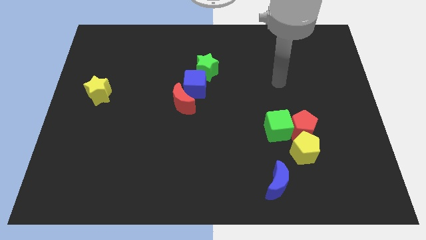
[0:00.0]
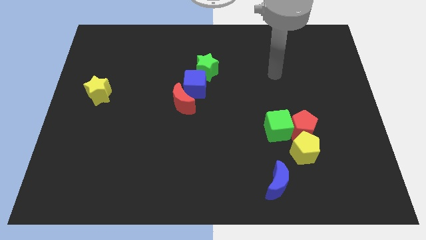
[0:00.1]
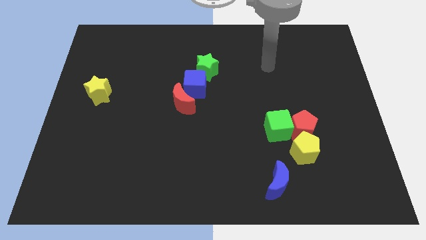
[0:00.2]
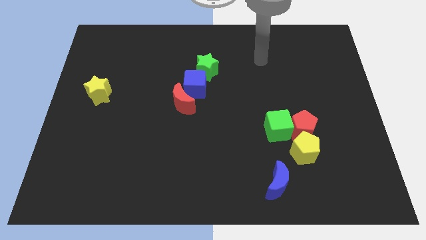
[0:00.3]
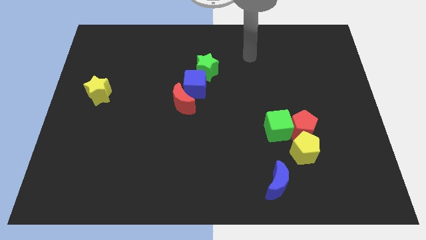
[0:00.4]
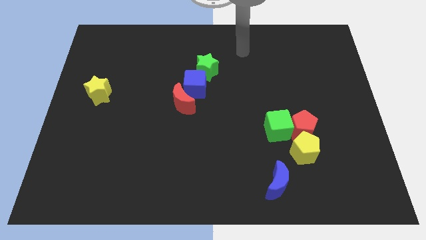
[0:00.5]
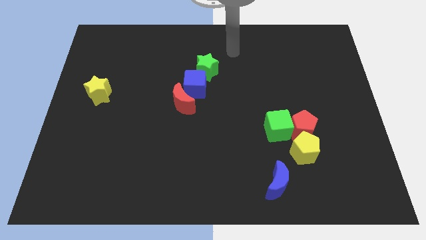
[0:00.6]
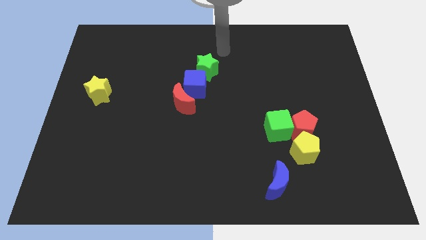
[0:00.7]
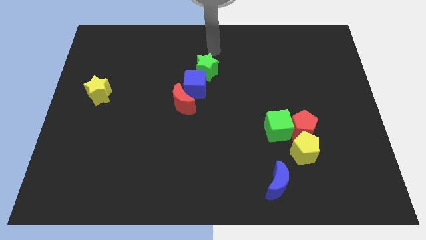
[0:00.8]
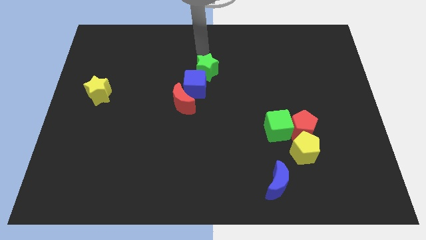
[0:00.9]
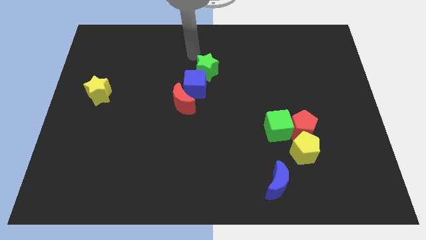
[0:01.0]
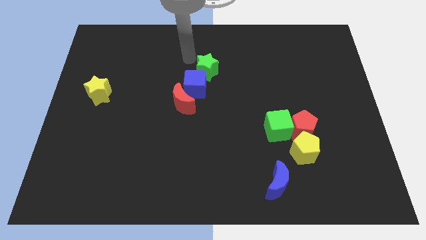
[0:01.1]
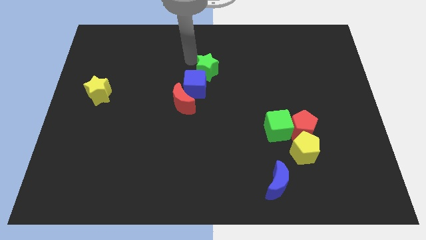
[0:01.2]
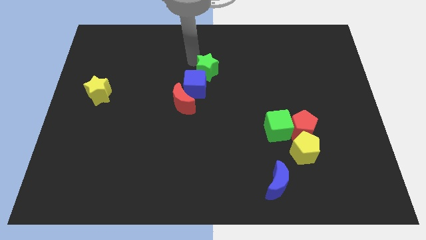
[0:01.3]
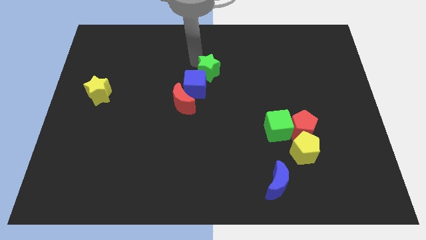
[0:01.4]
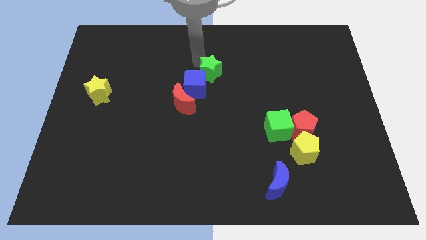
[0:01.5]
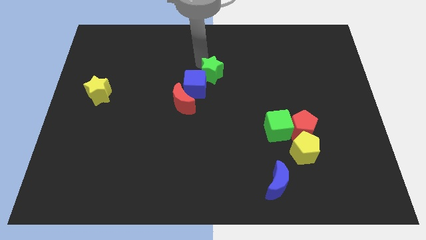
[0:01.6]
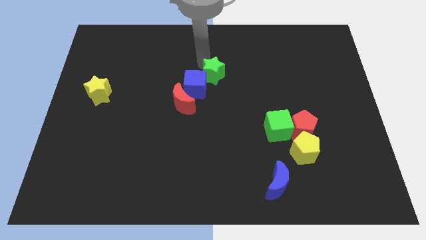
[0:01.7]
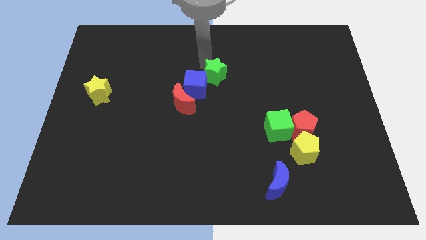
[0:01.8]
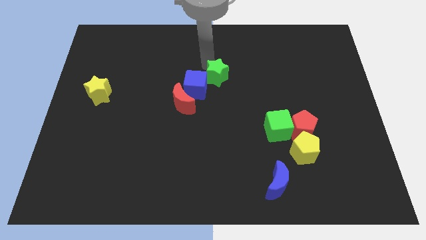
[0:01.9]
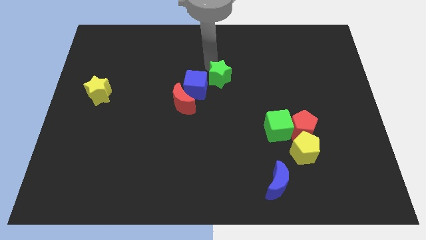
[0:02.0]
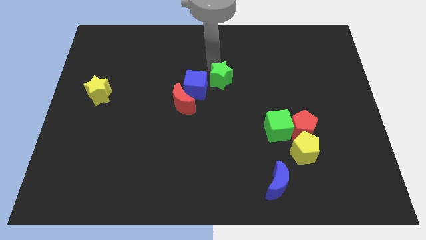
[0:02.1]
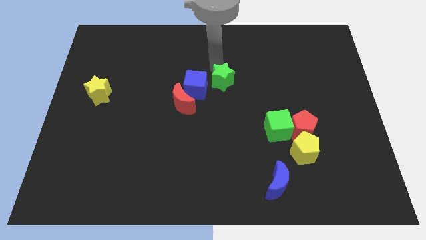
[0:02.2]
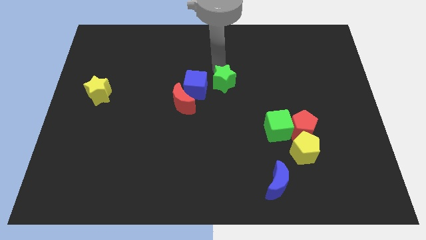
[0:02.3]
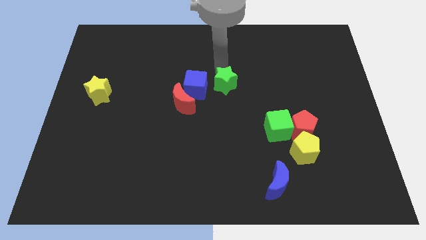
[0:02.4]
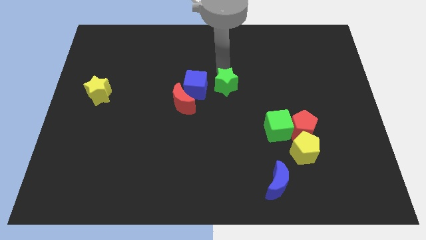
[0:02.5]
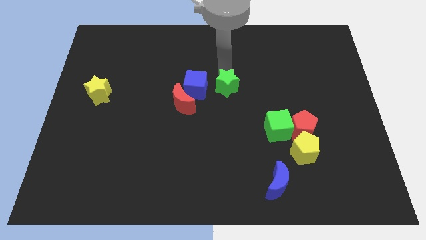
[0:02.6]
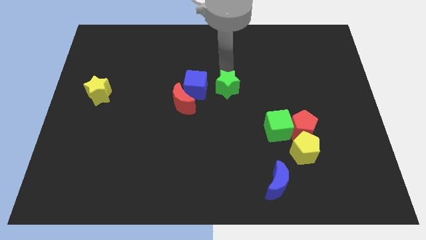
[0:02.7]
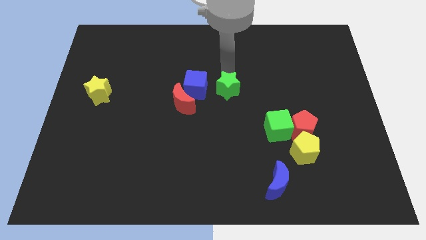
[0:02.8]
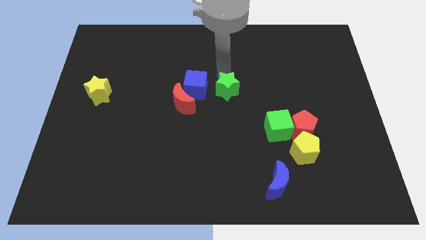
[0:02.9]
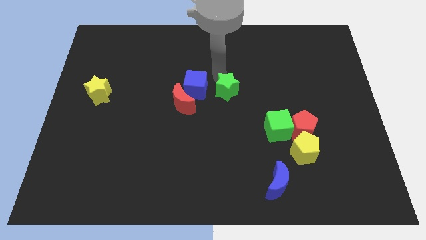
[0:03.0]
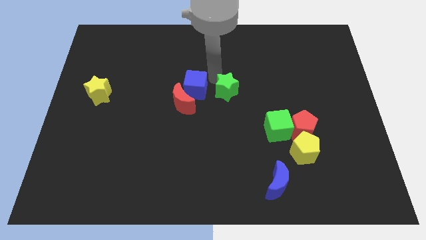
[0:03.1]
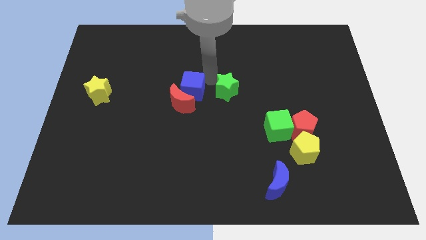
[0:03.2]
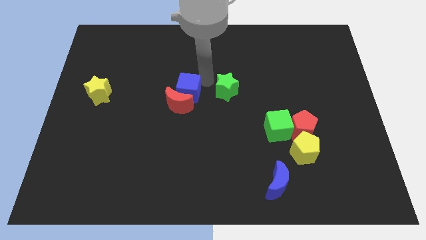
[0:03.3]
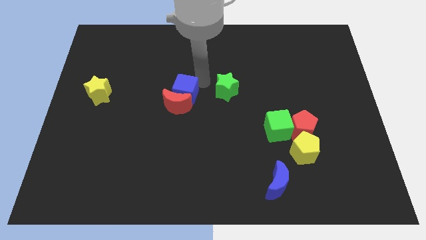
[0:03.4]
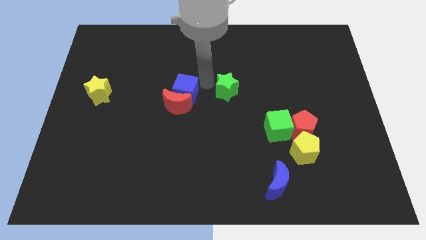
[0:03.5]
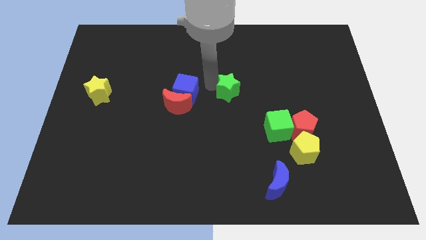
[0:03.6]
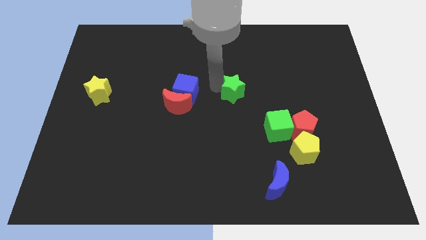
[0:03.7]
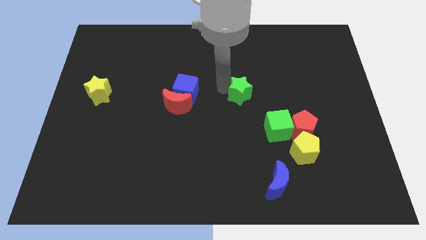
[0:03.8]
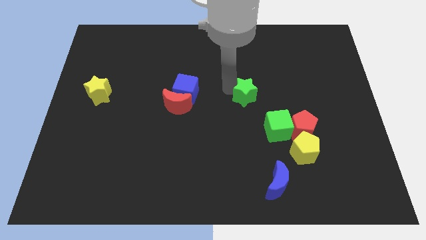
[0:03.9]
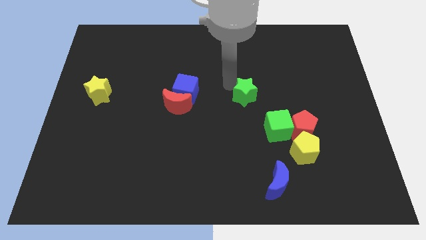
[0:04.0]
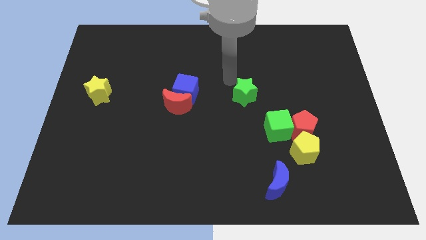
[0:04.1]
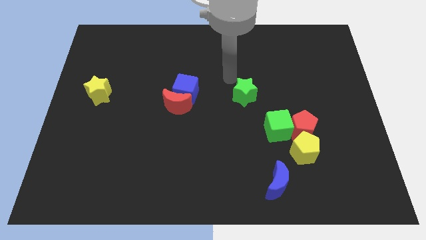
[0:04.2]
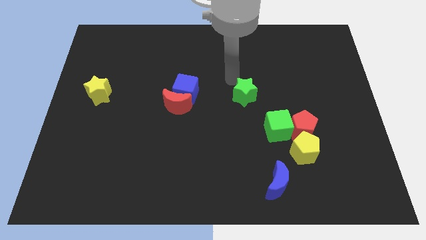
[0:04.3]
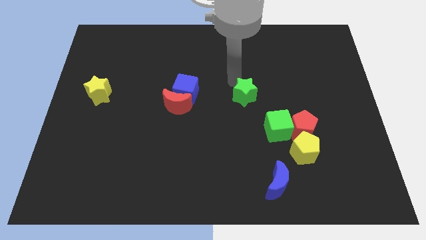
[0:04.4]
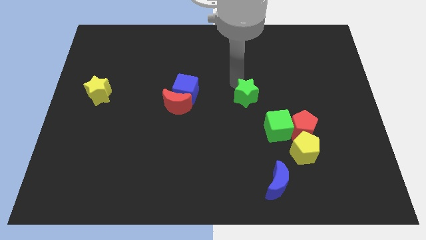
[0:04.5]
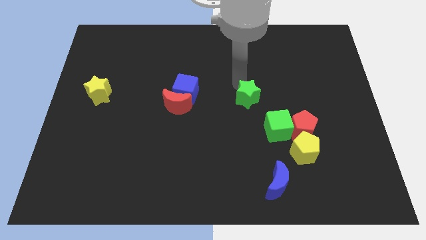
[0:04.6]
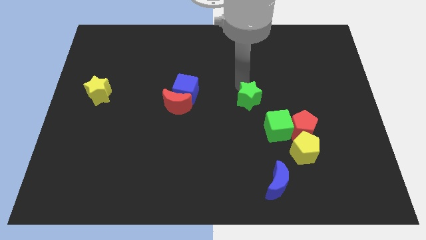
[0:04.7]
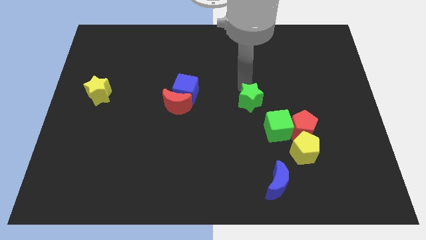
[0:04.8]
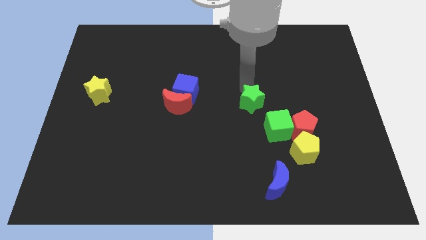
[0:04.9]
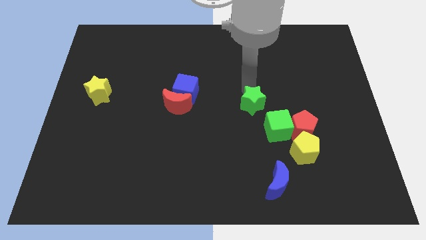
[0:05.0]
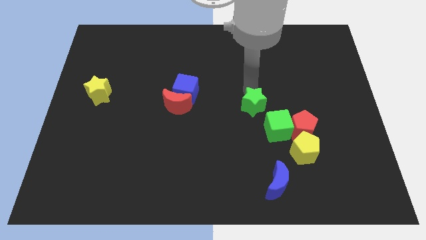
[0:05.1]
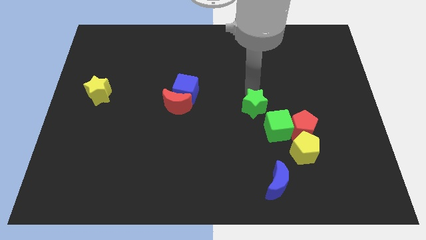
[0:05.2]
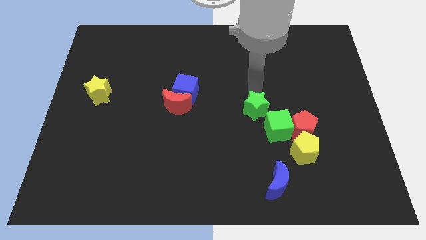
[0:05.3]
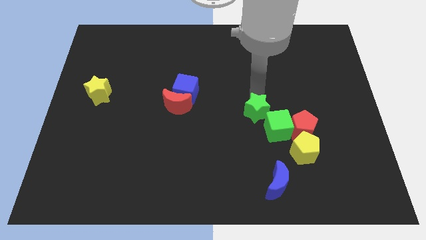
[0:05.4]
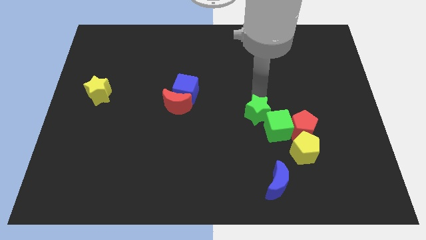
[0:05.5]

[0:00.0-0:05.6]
put the green star close to the green cube

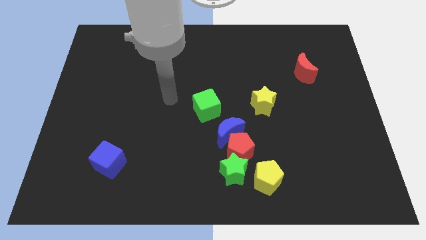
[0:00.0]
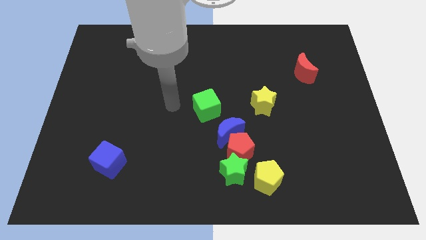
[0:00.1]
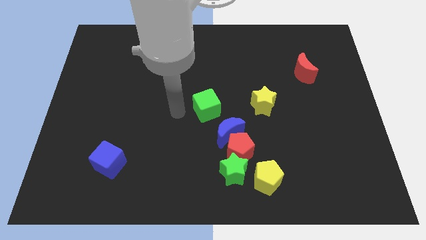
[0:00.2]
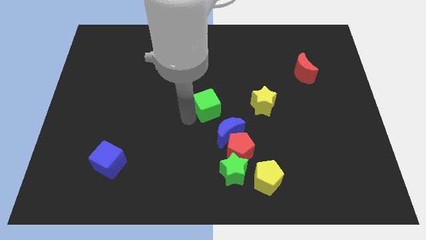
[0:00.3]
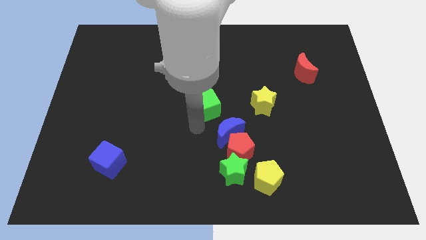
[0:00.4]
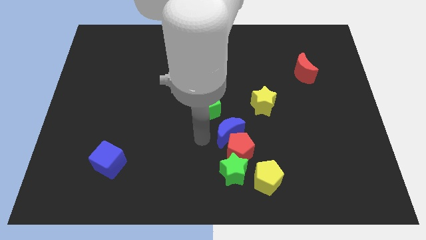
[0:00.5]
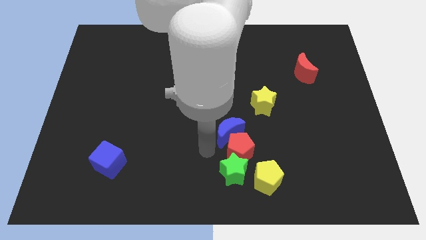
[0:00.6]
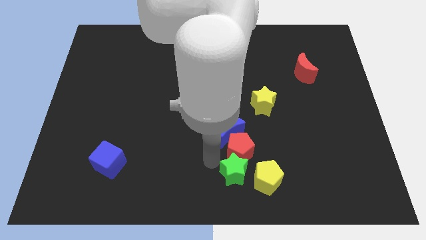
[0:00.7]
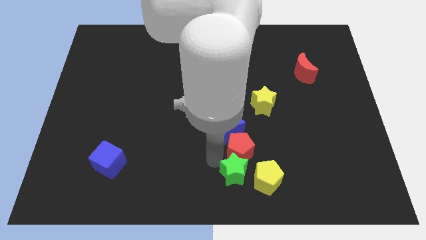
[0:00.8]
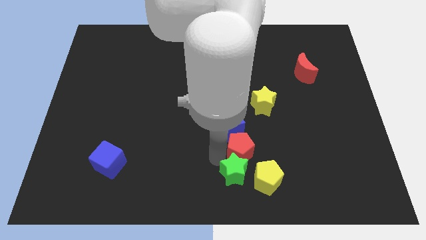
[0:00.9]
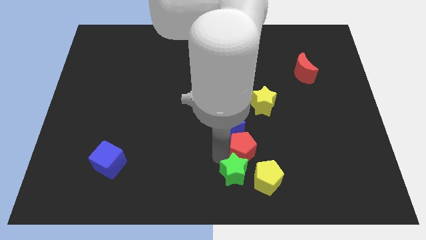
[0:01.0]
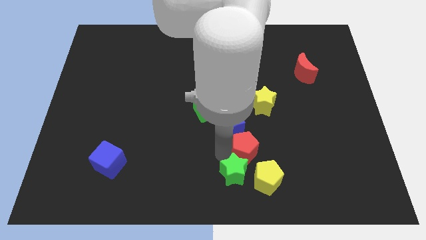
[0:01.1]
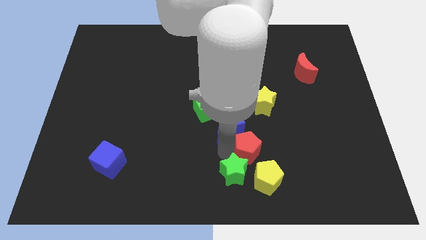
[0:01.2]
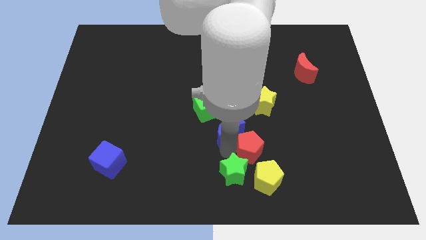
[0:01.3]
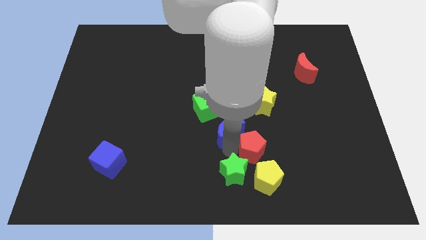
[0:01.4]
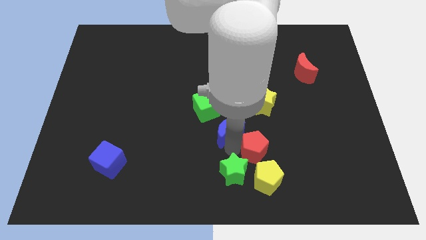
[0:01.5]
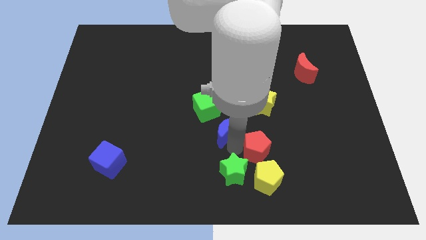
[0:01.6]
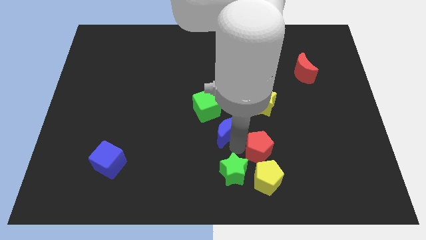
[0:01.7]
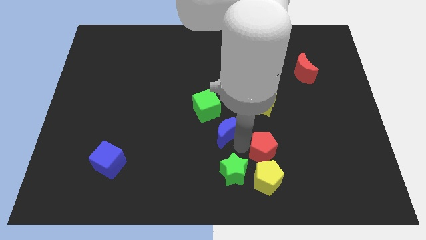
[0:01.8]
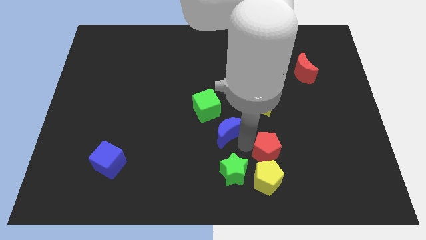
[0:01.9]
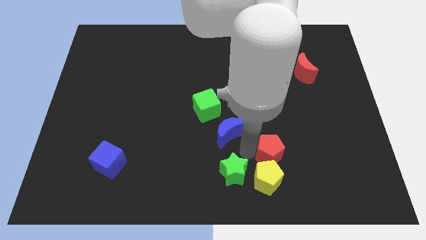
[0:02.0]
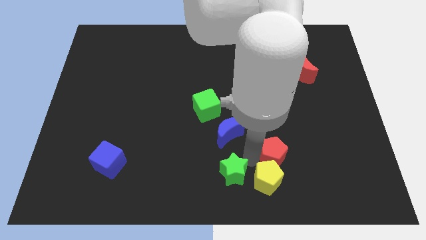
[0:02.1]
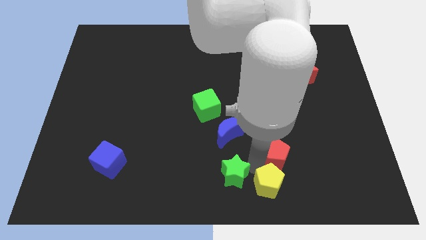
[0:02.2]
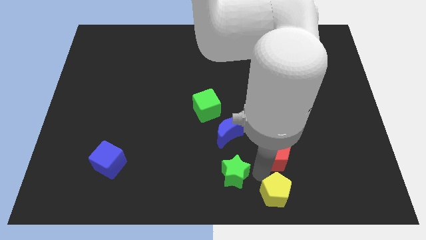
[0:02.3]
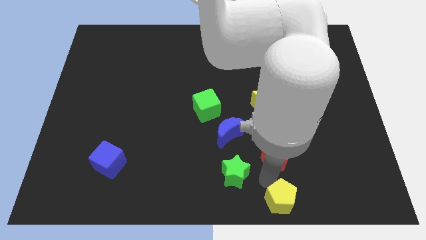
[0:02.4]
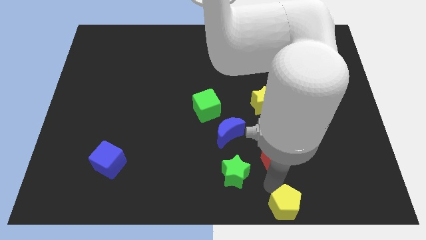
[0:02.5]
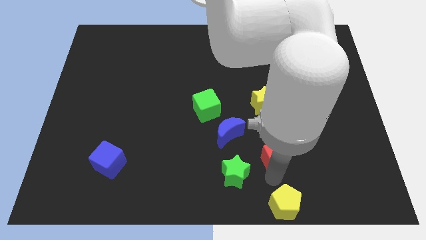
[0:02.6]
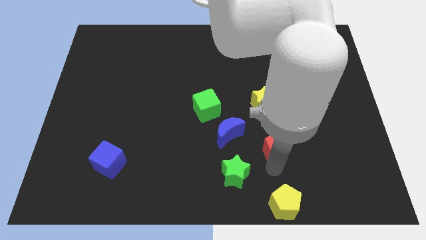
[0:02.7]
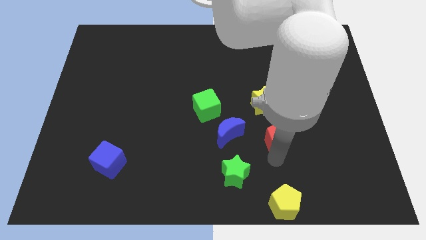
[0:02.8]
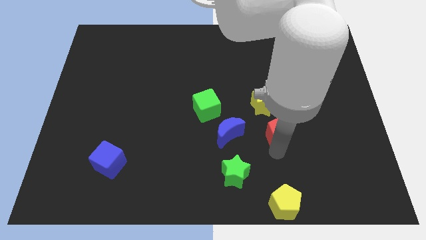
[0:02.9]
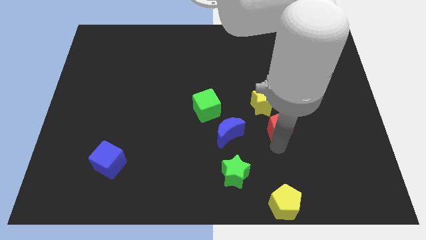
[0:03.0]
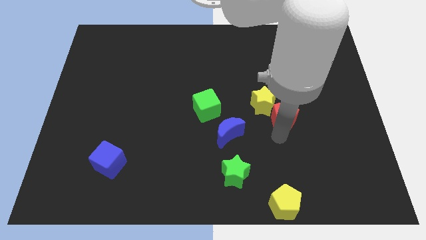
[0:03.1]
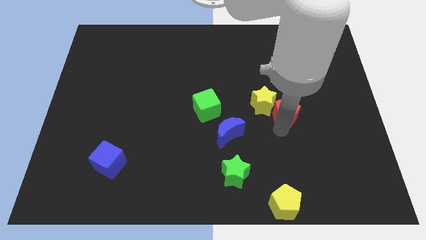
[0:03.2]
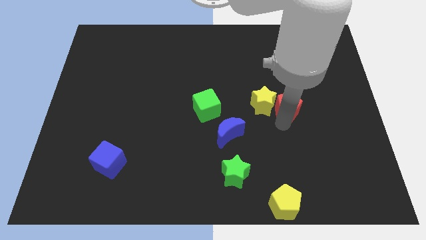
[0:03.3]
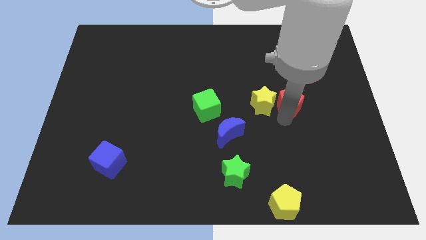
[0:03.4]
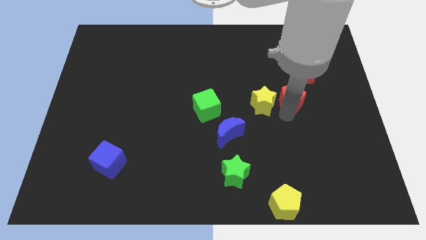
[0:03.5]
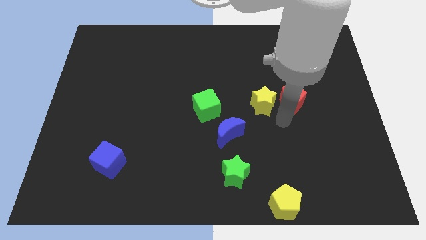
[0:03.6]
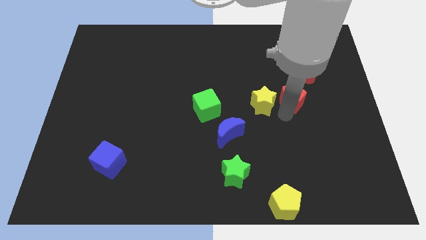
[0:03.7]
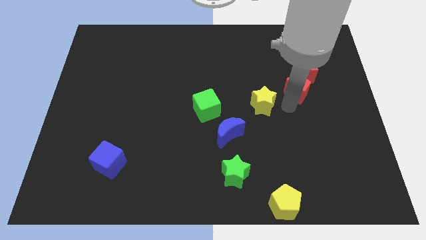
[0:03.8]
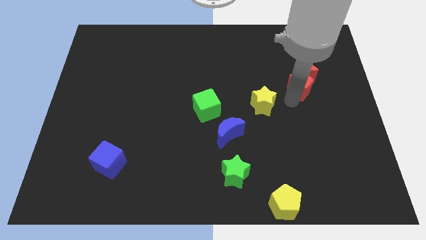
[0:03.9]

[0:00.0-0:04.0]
move the red pentagon towards the red moon
